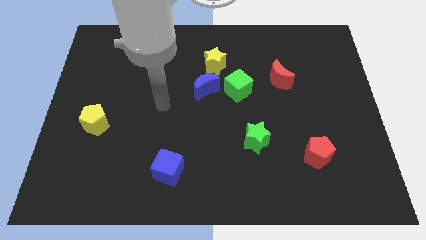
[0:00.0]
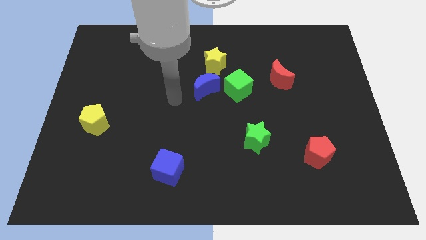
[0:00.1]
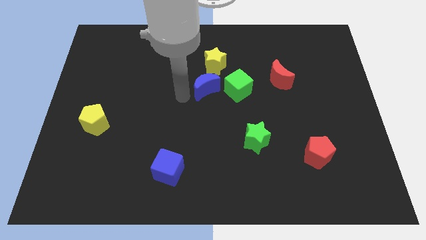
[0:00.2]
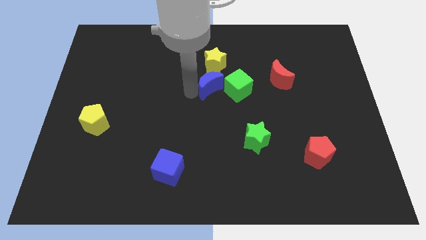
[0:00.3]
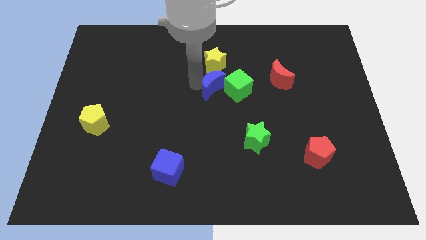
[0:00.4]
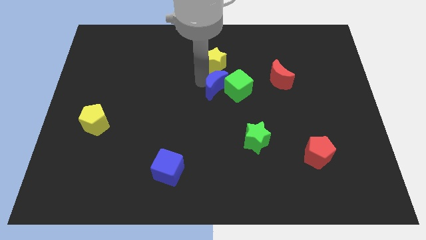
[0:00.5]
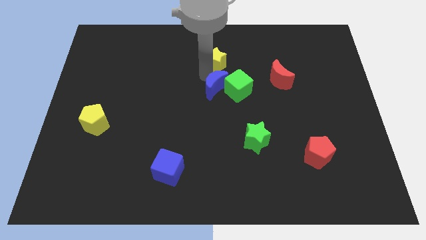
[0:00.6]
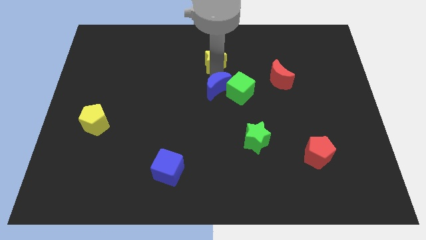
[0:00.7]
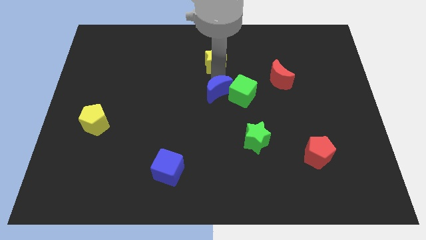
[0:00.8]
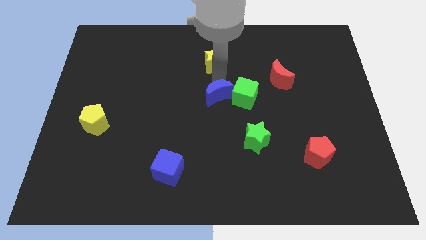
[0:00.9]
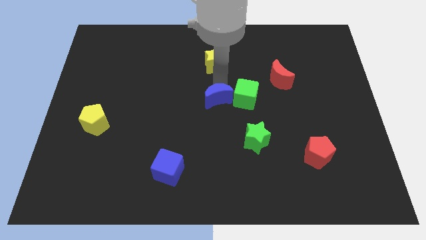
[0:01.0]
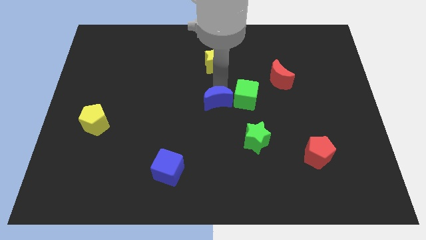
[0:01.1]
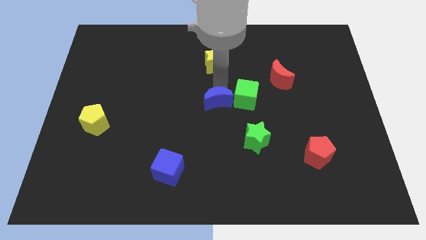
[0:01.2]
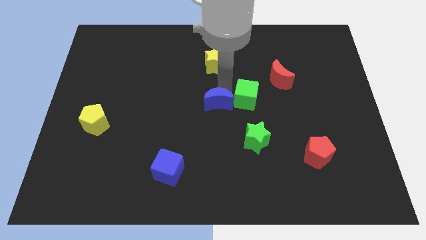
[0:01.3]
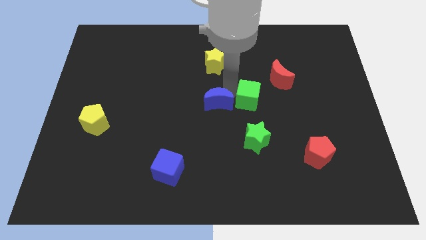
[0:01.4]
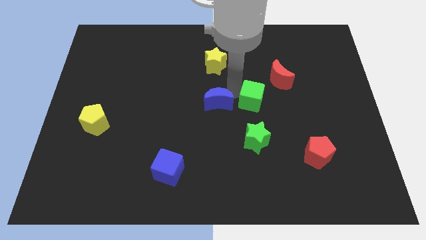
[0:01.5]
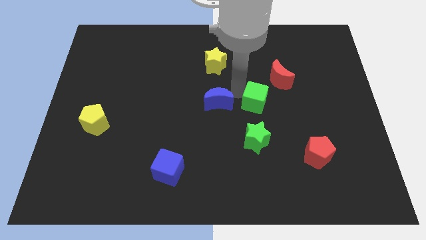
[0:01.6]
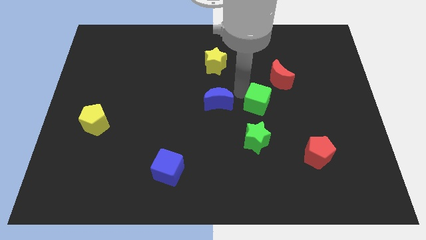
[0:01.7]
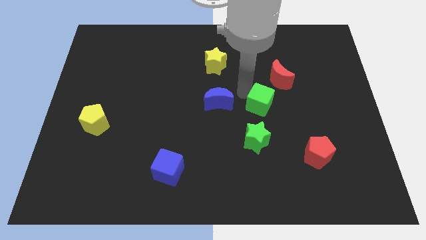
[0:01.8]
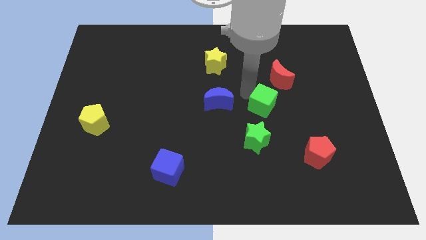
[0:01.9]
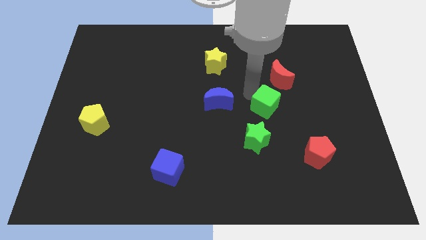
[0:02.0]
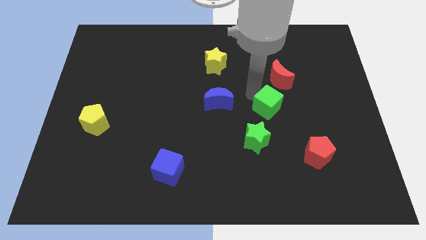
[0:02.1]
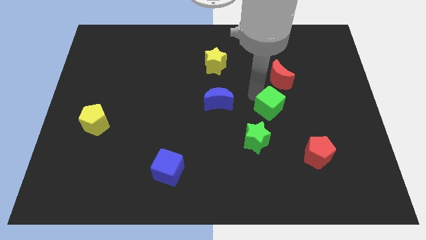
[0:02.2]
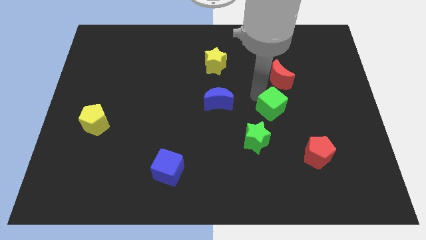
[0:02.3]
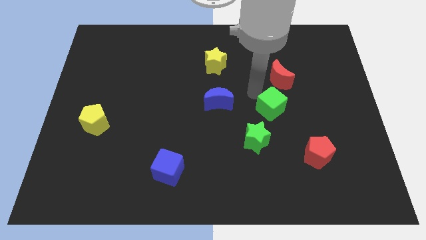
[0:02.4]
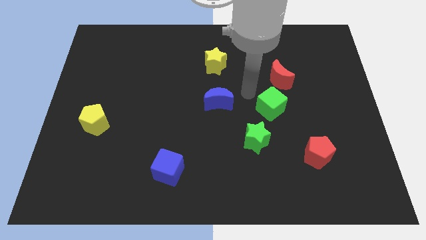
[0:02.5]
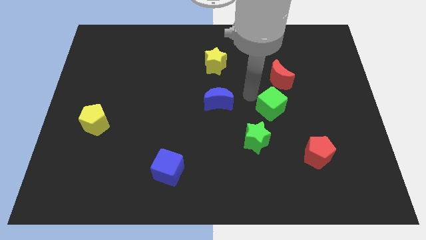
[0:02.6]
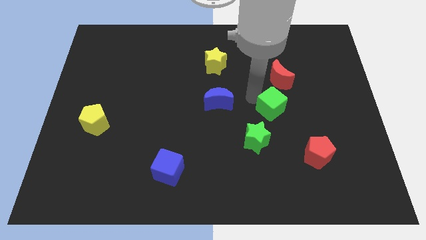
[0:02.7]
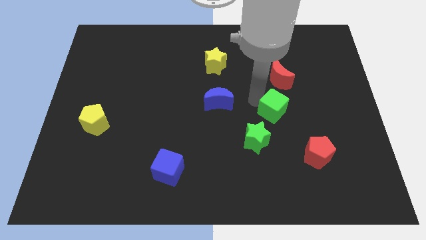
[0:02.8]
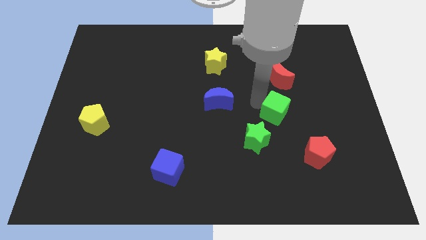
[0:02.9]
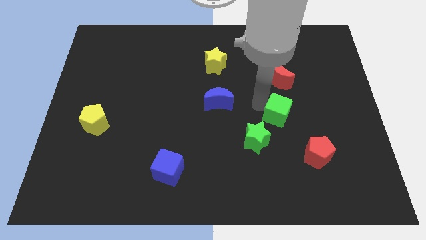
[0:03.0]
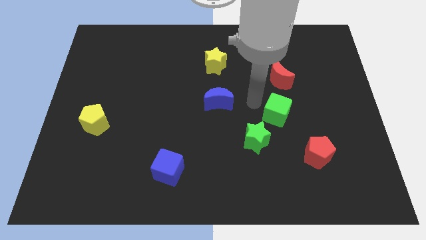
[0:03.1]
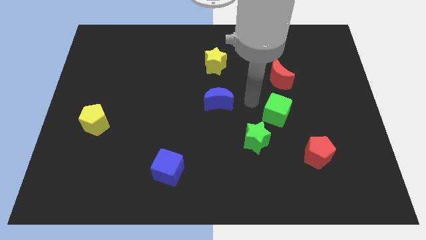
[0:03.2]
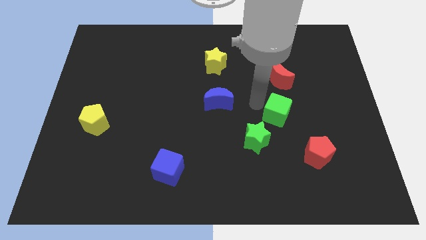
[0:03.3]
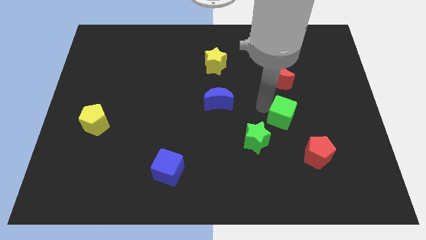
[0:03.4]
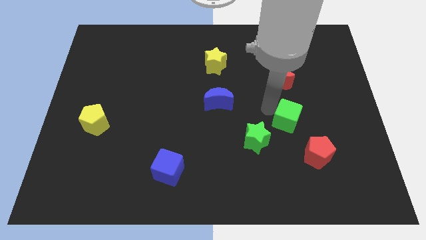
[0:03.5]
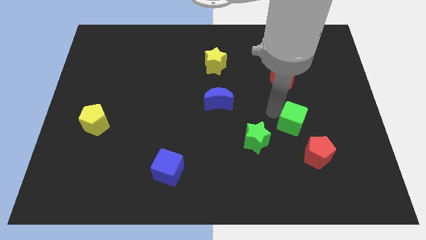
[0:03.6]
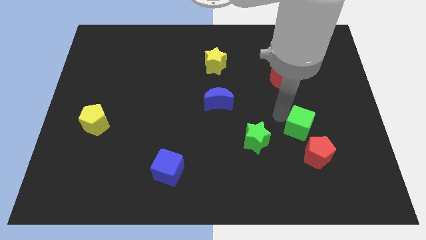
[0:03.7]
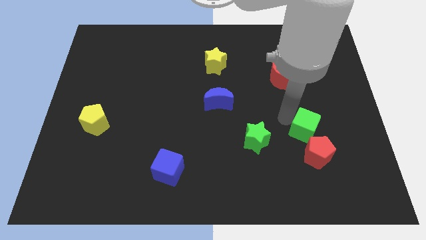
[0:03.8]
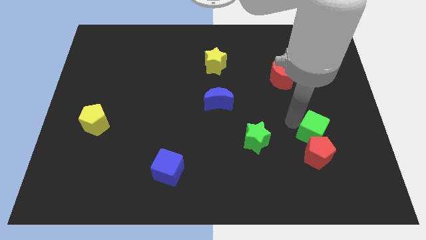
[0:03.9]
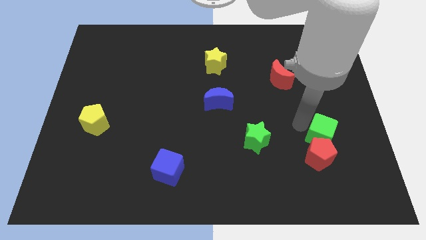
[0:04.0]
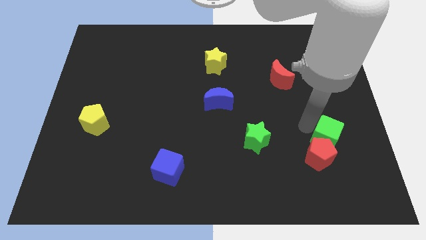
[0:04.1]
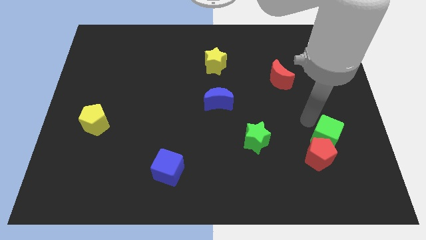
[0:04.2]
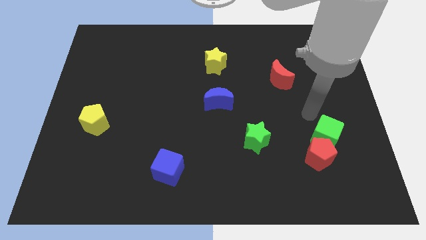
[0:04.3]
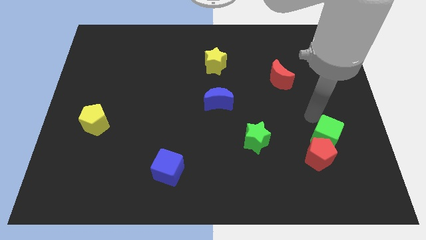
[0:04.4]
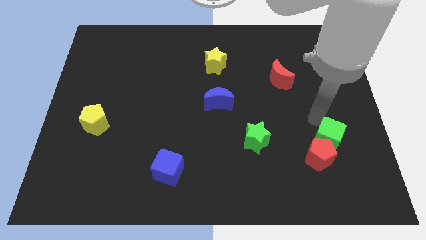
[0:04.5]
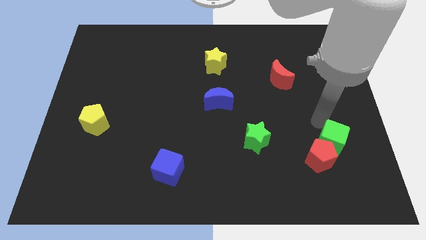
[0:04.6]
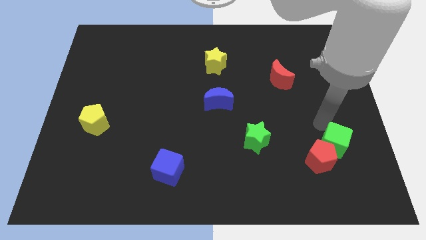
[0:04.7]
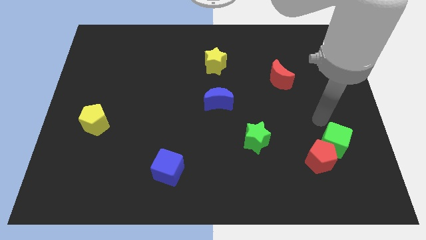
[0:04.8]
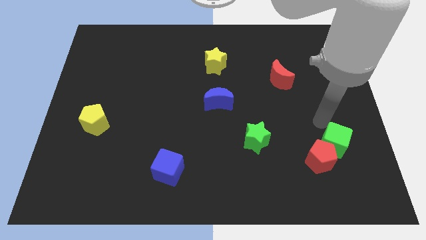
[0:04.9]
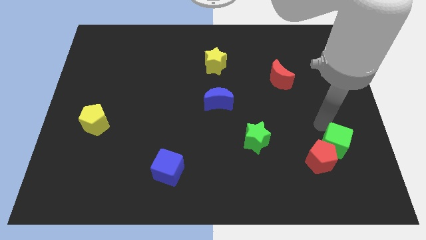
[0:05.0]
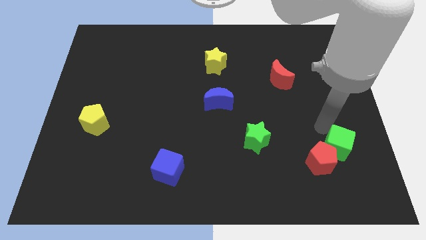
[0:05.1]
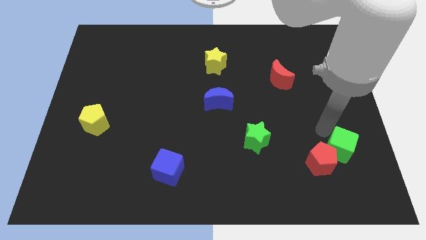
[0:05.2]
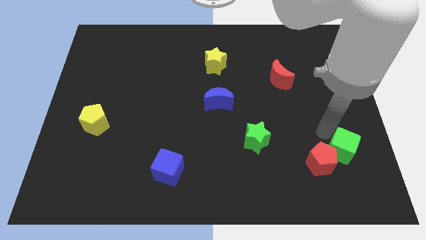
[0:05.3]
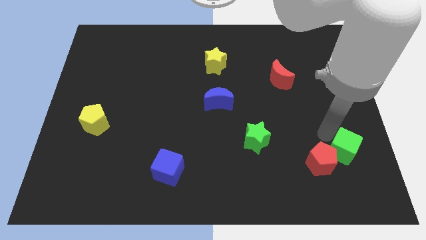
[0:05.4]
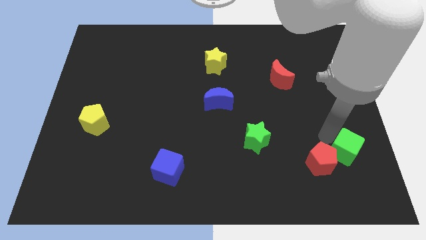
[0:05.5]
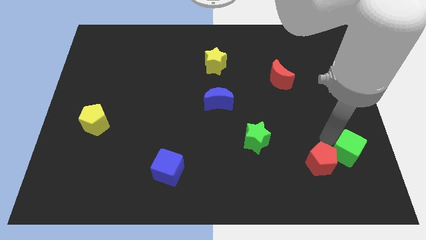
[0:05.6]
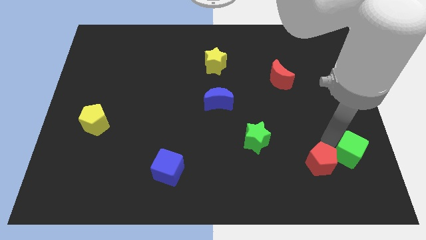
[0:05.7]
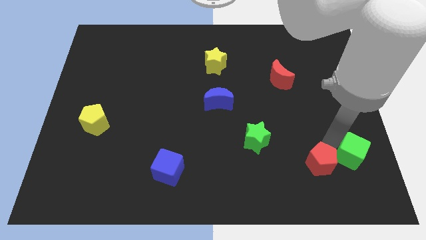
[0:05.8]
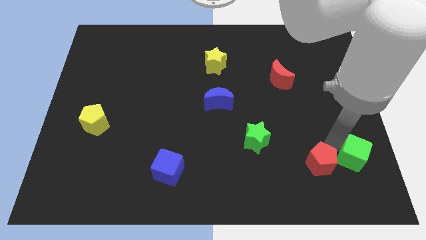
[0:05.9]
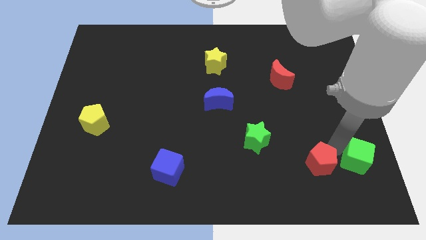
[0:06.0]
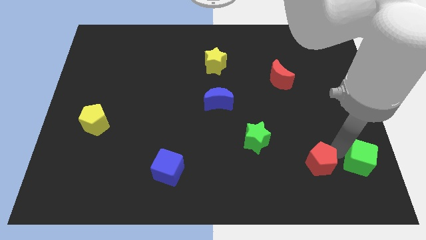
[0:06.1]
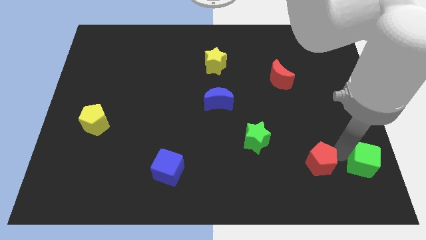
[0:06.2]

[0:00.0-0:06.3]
push the green cube to the bottom right
